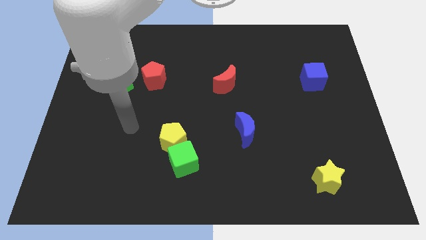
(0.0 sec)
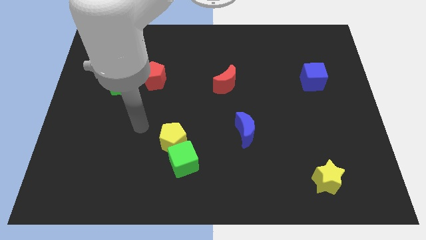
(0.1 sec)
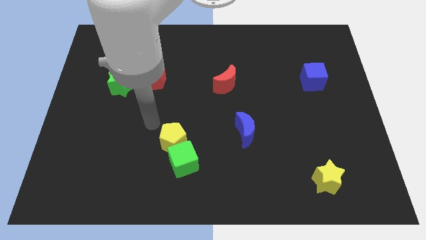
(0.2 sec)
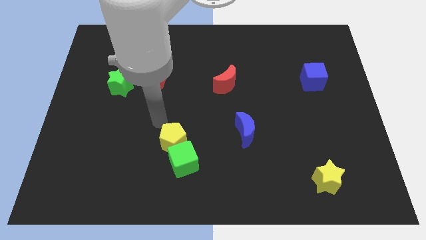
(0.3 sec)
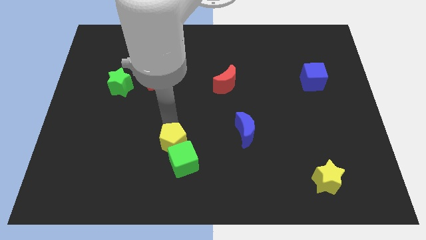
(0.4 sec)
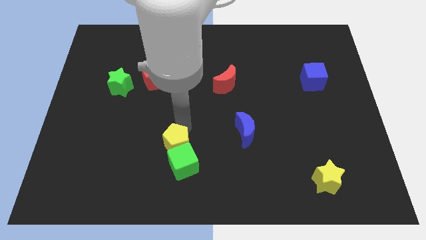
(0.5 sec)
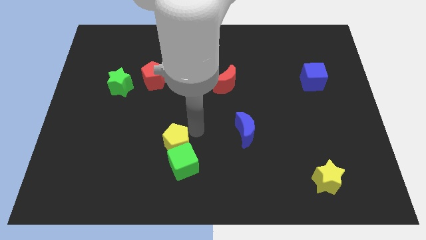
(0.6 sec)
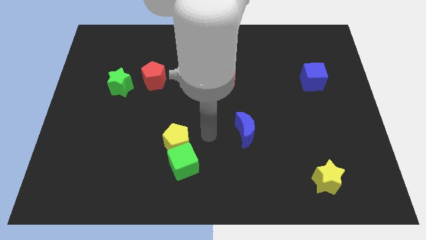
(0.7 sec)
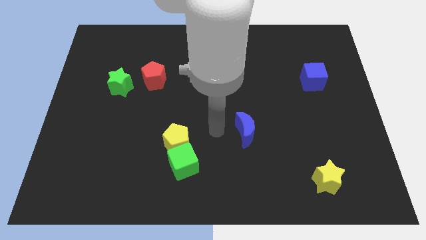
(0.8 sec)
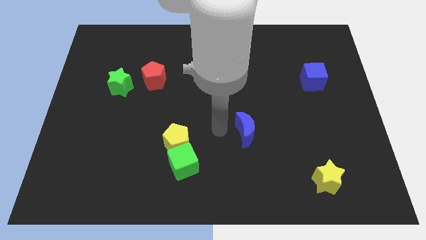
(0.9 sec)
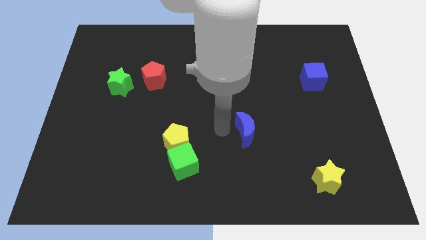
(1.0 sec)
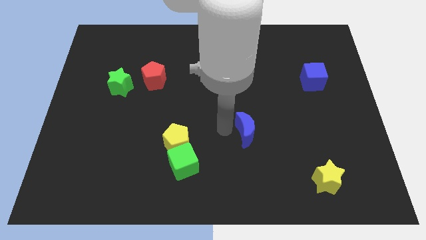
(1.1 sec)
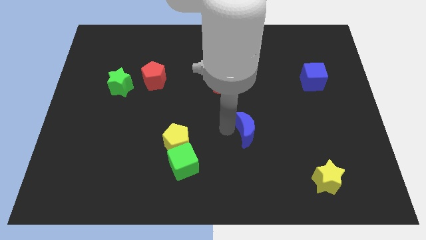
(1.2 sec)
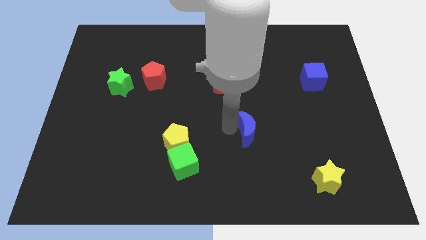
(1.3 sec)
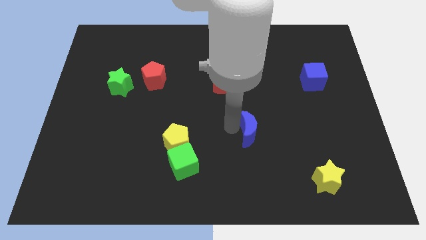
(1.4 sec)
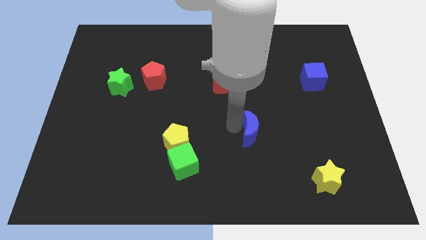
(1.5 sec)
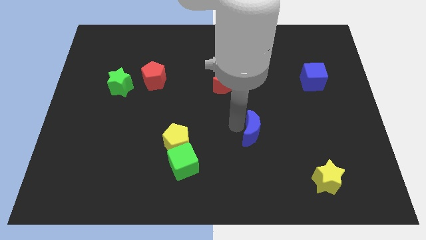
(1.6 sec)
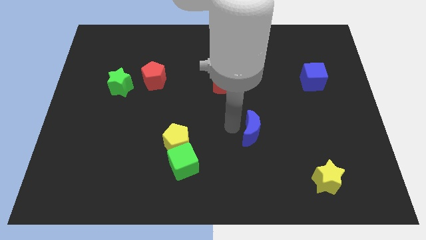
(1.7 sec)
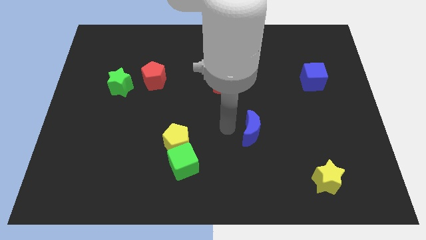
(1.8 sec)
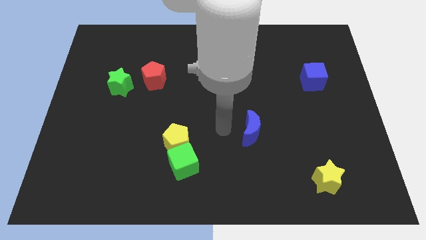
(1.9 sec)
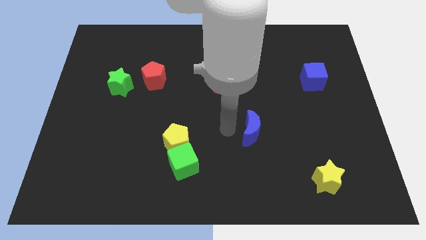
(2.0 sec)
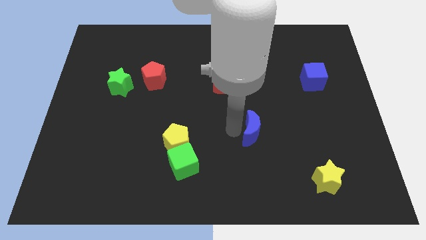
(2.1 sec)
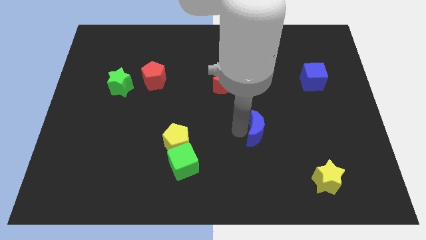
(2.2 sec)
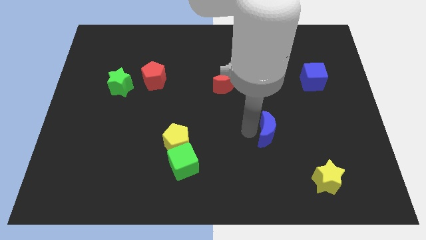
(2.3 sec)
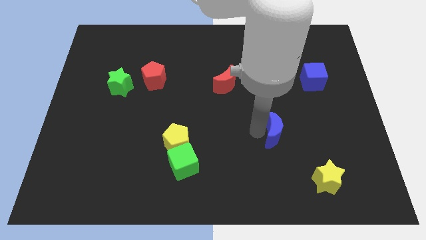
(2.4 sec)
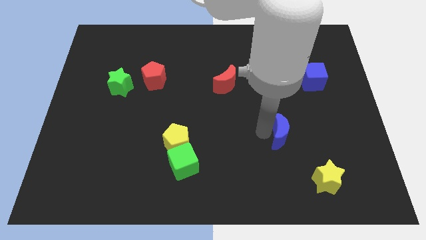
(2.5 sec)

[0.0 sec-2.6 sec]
slightly slide the blue moon to the right

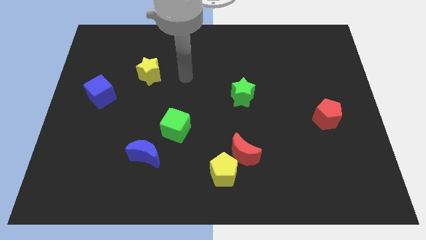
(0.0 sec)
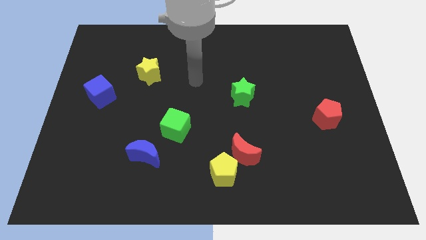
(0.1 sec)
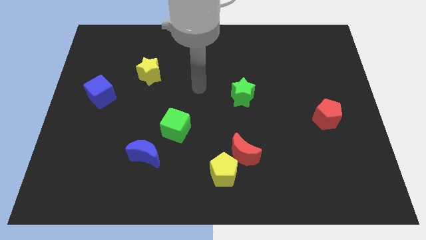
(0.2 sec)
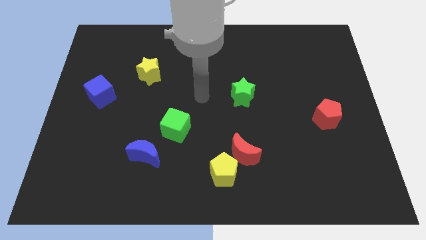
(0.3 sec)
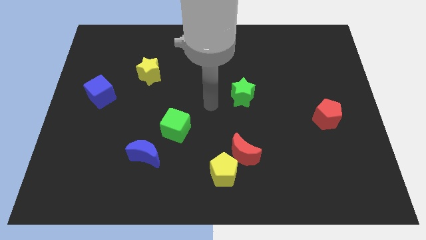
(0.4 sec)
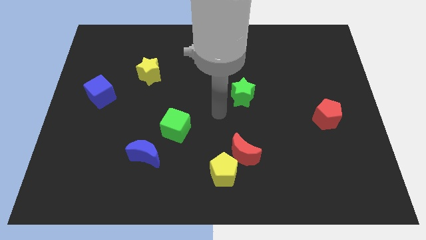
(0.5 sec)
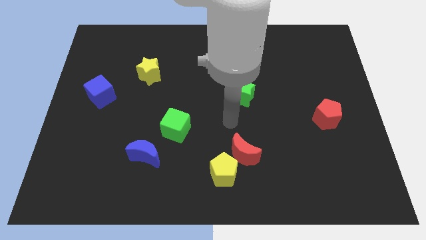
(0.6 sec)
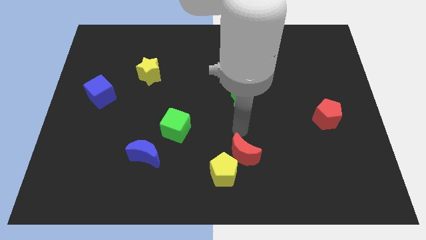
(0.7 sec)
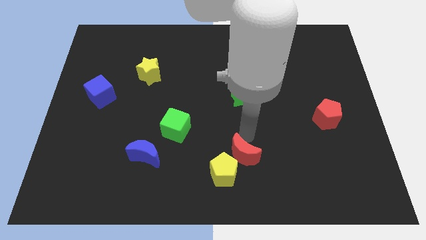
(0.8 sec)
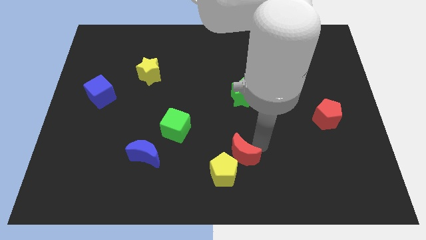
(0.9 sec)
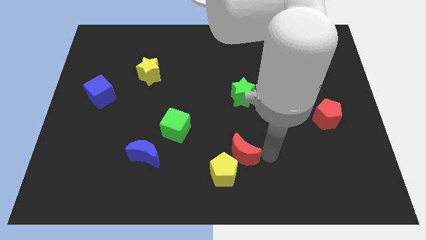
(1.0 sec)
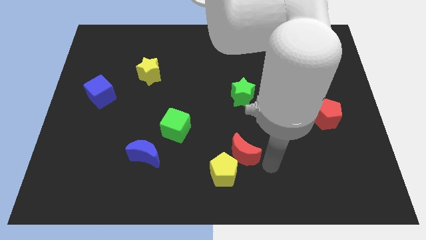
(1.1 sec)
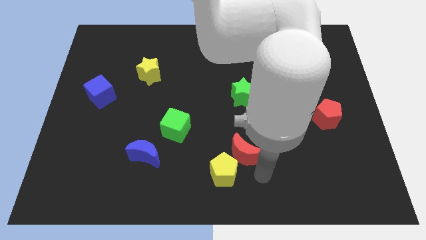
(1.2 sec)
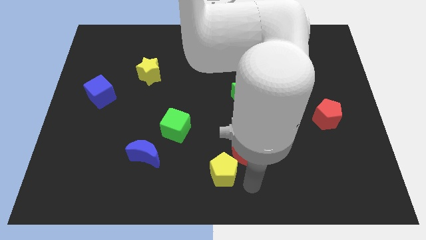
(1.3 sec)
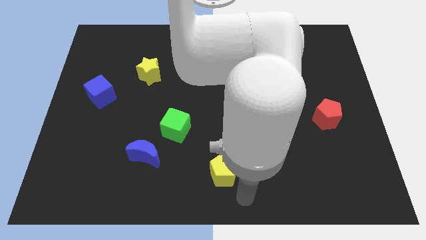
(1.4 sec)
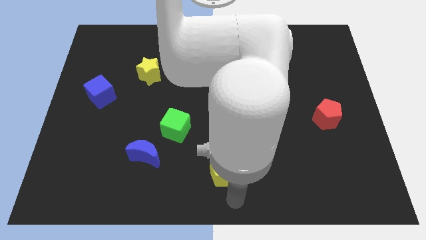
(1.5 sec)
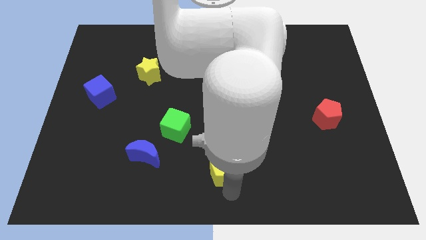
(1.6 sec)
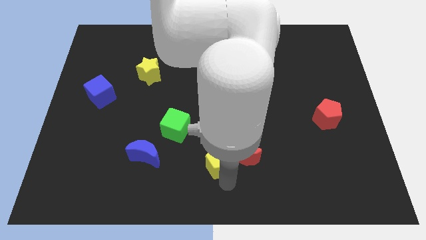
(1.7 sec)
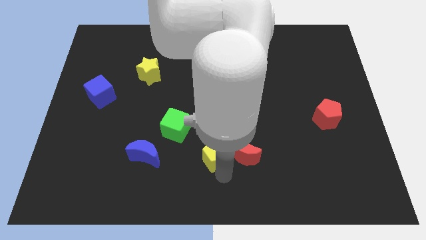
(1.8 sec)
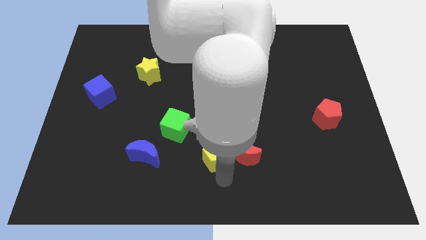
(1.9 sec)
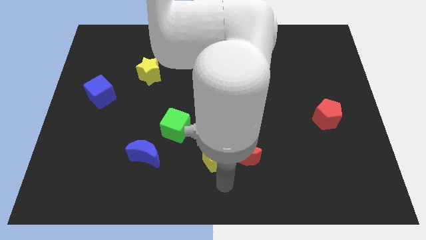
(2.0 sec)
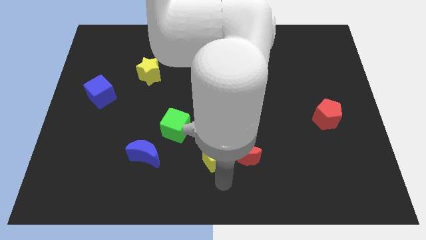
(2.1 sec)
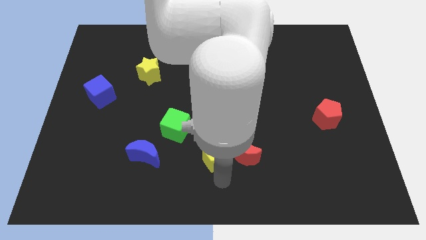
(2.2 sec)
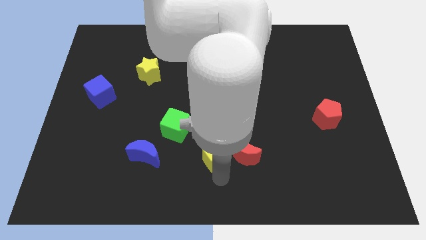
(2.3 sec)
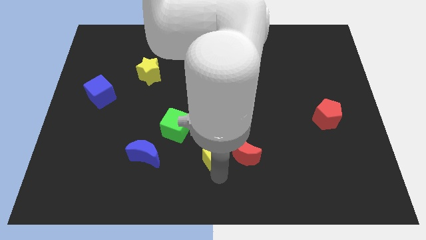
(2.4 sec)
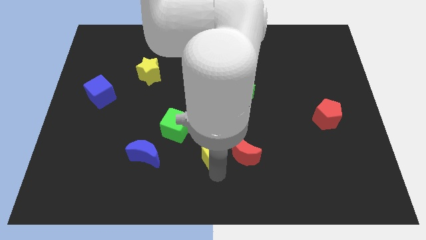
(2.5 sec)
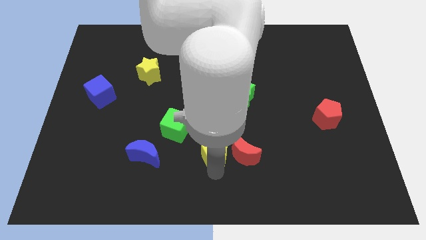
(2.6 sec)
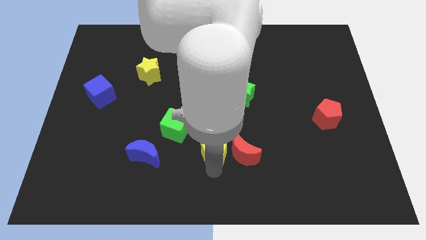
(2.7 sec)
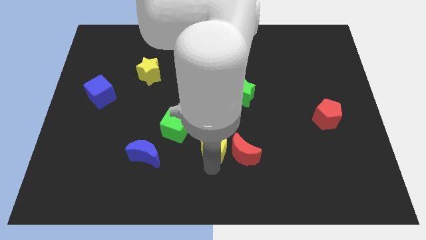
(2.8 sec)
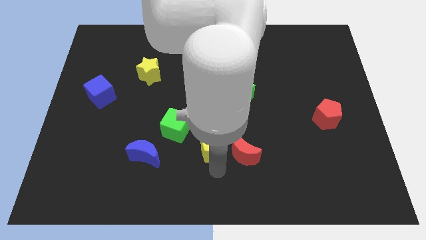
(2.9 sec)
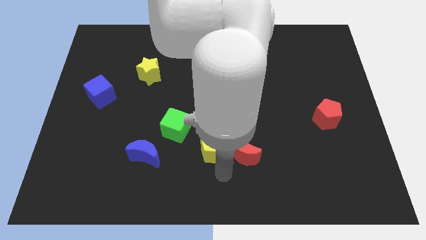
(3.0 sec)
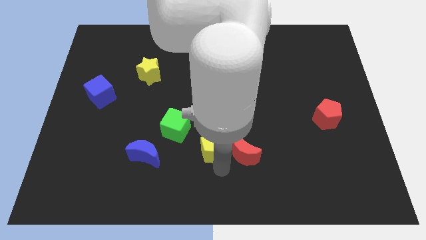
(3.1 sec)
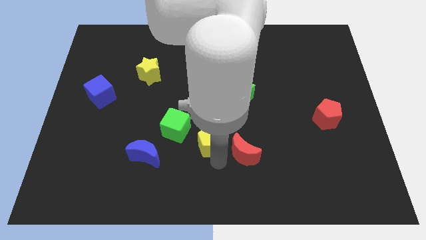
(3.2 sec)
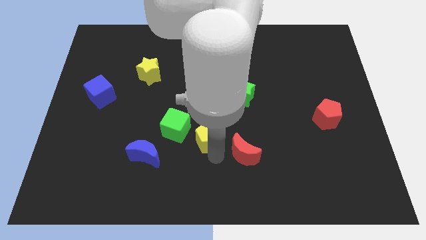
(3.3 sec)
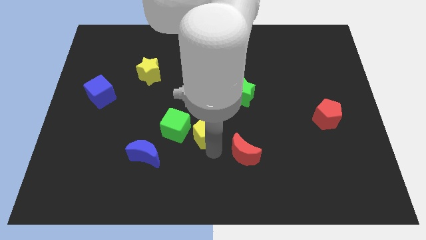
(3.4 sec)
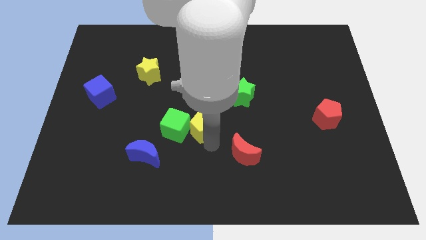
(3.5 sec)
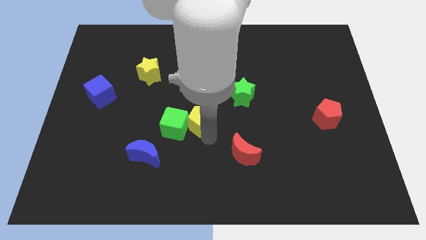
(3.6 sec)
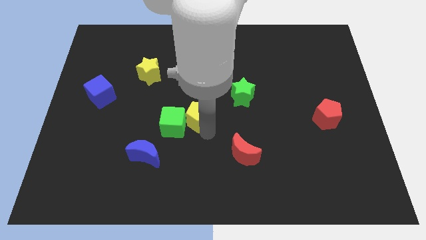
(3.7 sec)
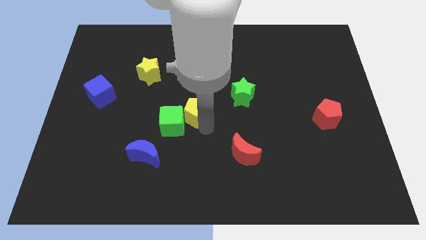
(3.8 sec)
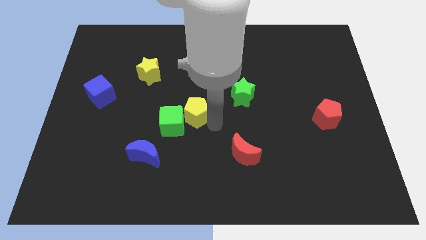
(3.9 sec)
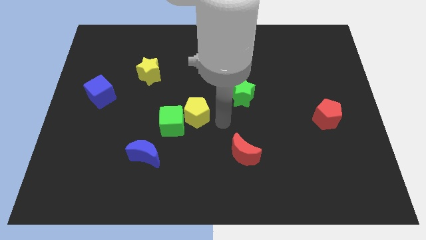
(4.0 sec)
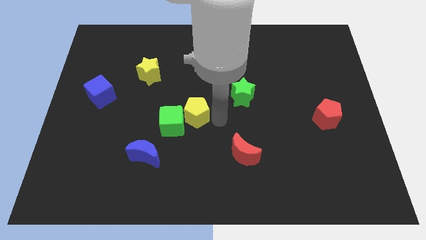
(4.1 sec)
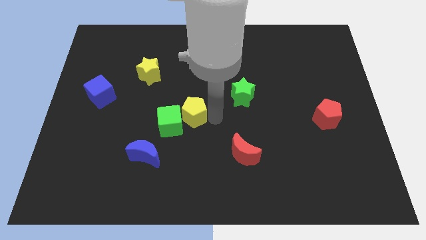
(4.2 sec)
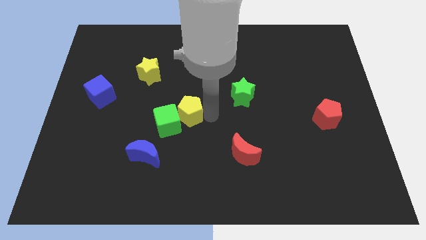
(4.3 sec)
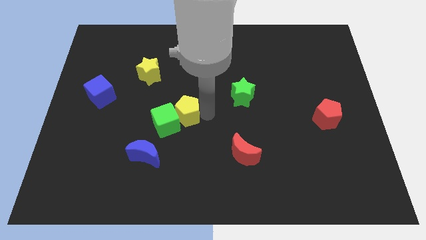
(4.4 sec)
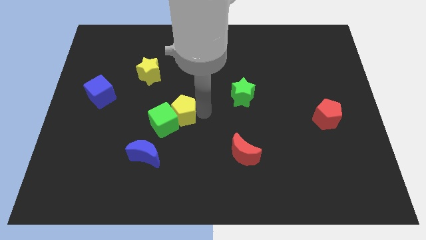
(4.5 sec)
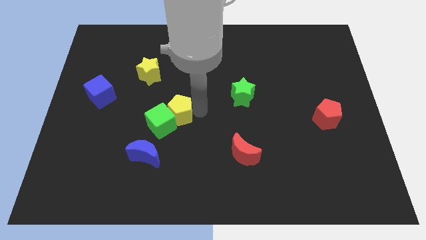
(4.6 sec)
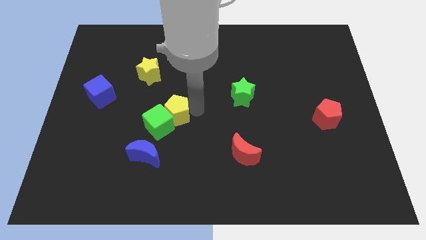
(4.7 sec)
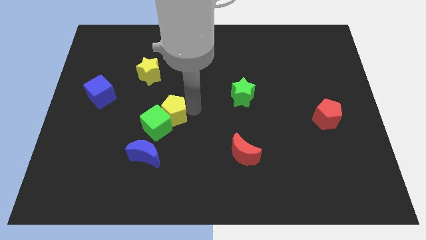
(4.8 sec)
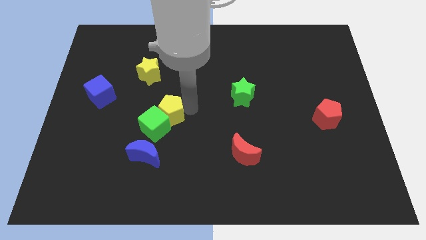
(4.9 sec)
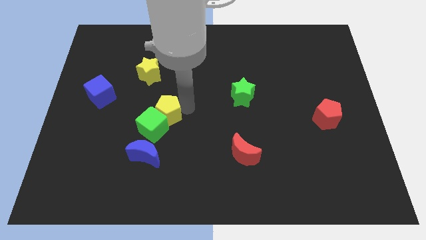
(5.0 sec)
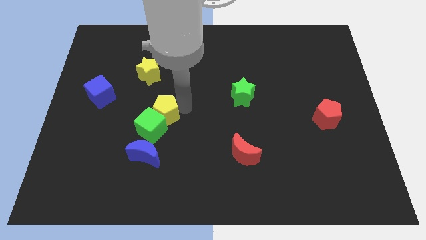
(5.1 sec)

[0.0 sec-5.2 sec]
slide the yellow pentagon upwards and then to the left
